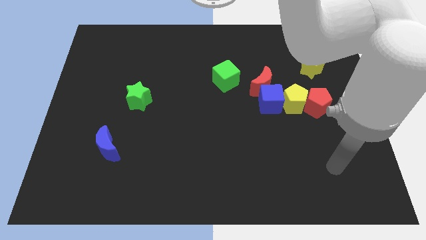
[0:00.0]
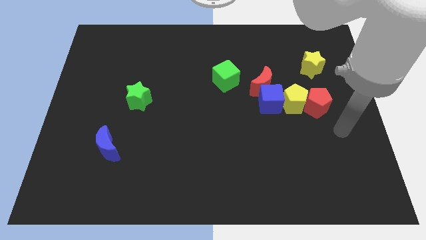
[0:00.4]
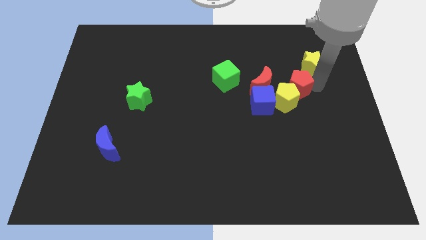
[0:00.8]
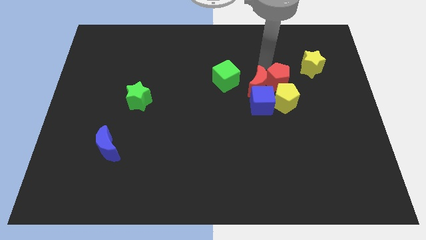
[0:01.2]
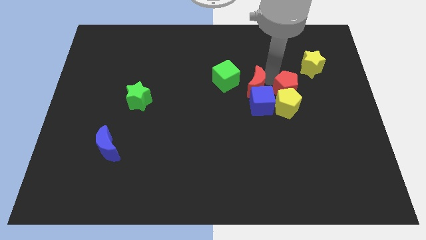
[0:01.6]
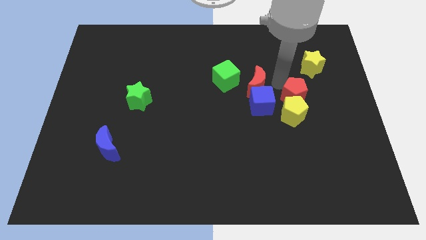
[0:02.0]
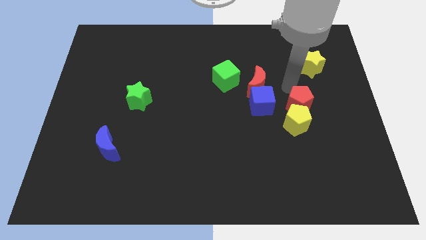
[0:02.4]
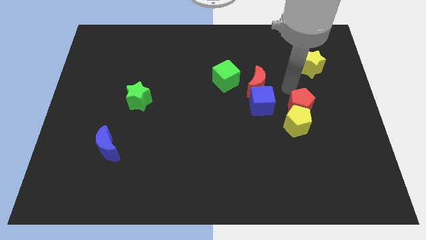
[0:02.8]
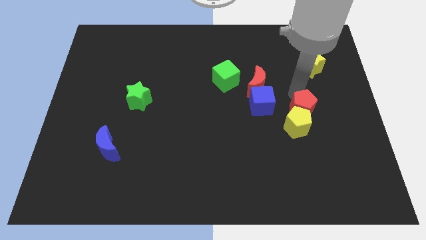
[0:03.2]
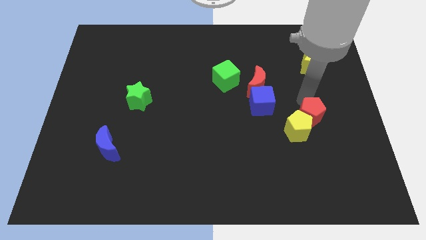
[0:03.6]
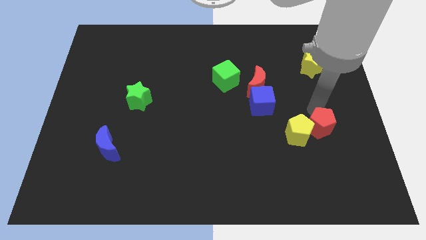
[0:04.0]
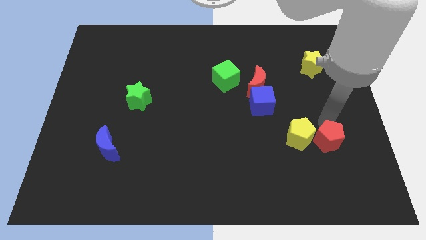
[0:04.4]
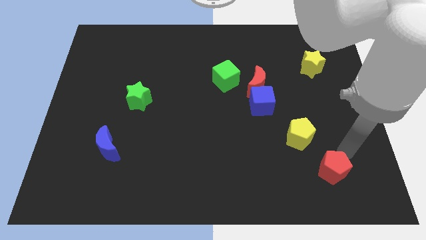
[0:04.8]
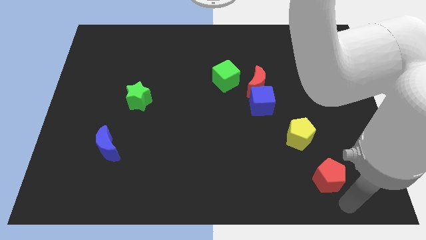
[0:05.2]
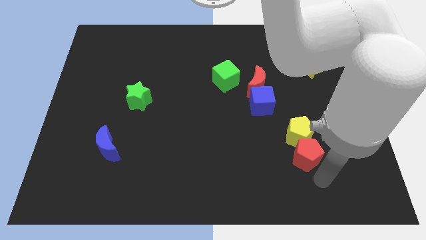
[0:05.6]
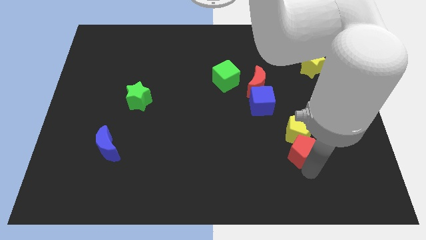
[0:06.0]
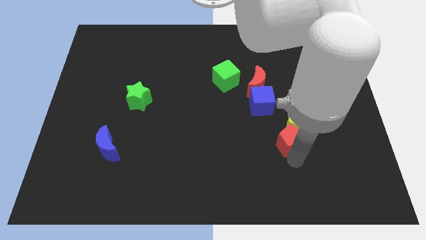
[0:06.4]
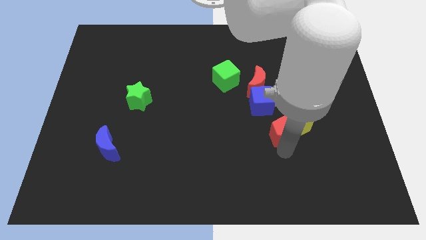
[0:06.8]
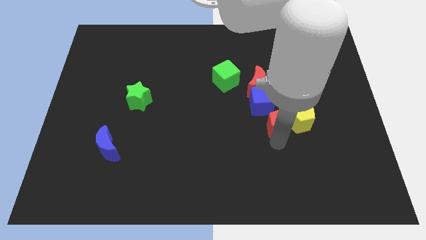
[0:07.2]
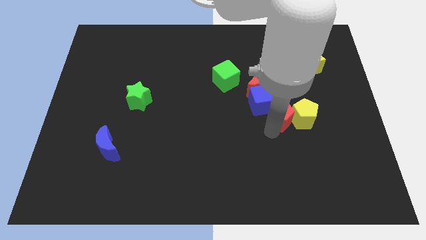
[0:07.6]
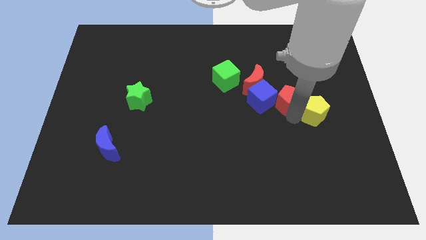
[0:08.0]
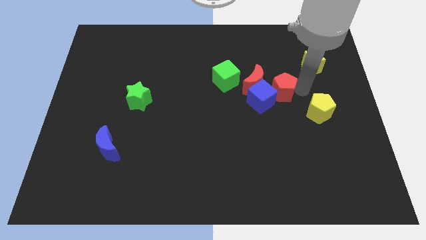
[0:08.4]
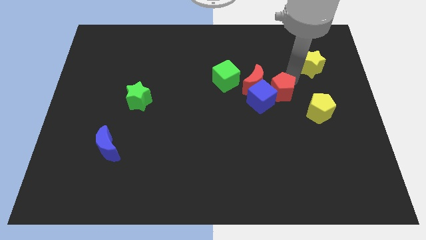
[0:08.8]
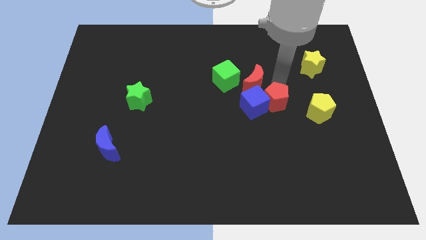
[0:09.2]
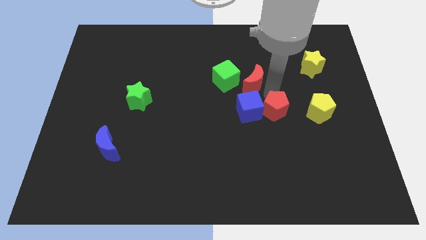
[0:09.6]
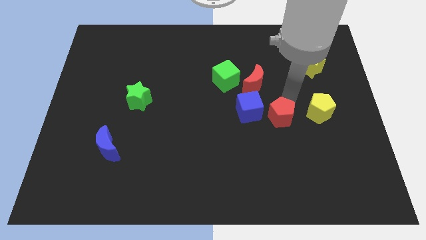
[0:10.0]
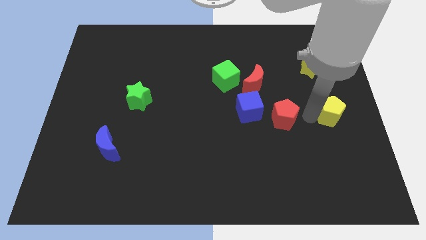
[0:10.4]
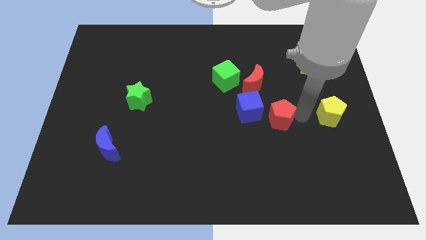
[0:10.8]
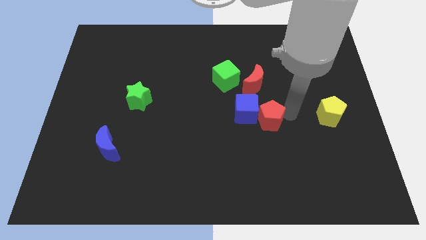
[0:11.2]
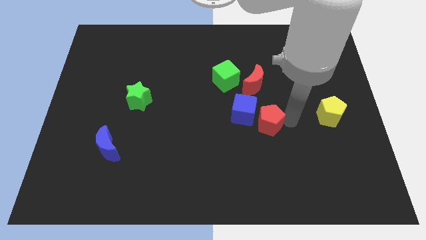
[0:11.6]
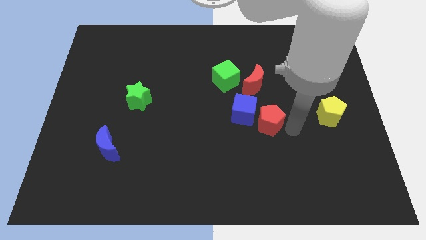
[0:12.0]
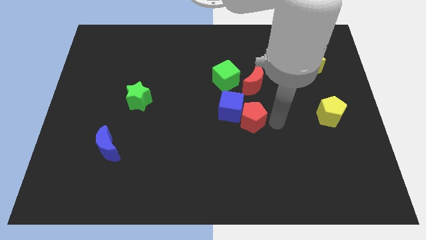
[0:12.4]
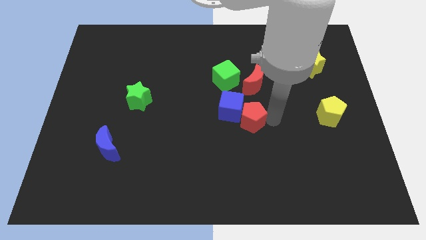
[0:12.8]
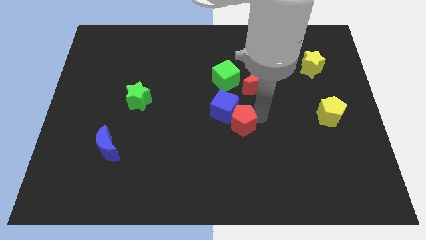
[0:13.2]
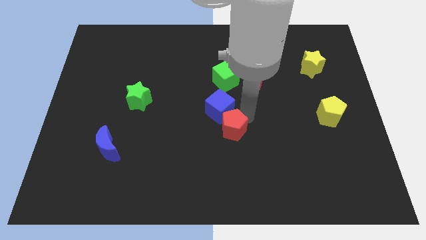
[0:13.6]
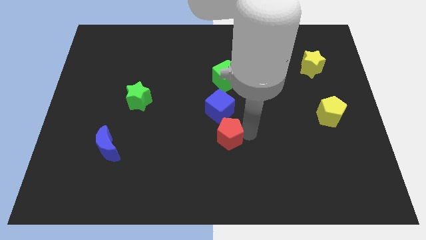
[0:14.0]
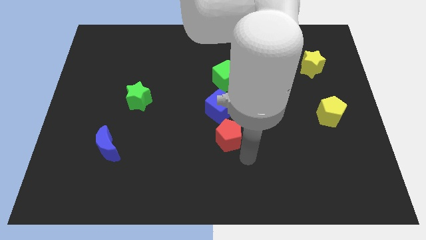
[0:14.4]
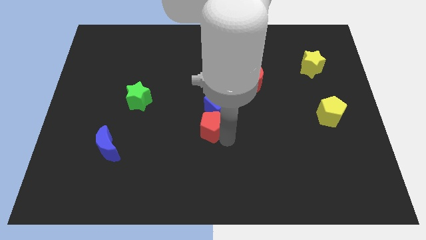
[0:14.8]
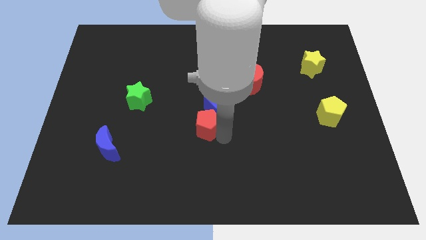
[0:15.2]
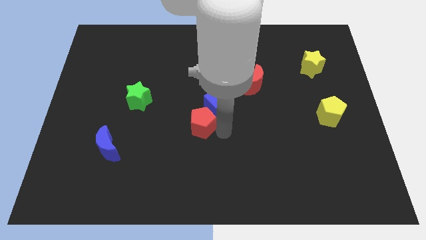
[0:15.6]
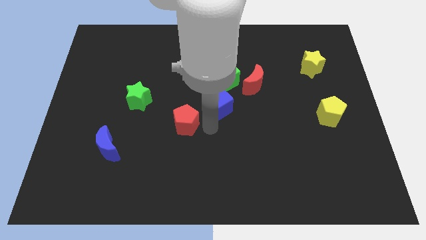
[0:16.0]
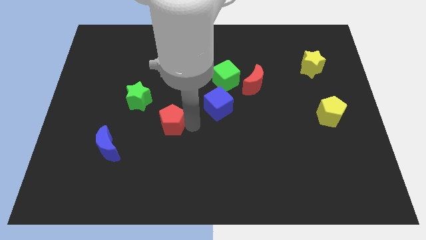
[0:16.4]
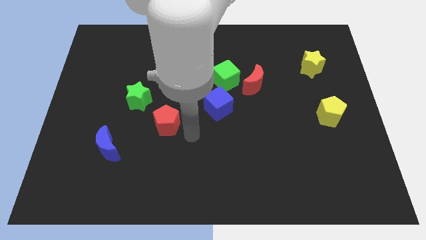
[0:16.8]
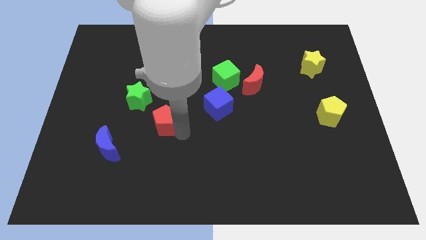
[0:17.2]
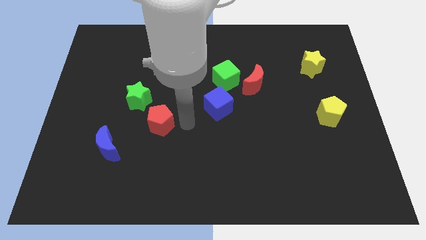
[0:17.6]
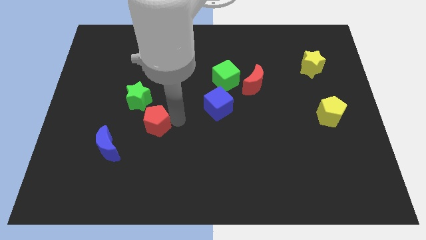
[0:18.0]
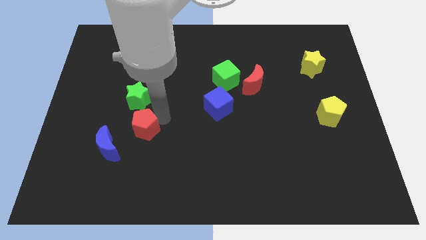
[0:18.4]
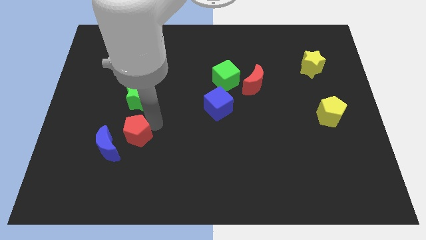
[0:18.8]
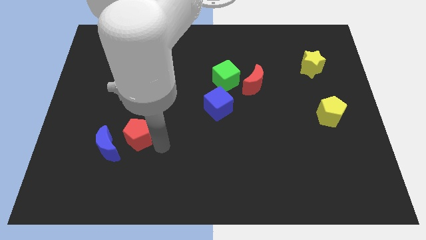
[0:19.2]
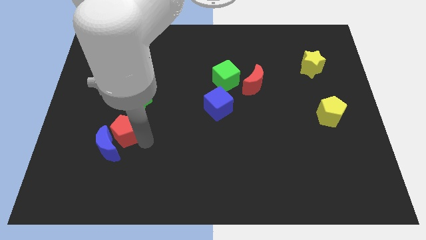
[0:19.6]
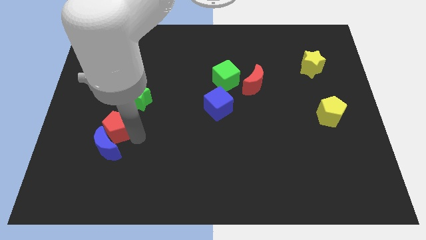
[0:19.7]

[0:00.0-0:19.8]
slide the red pentagon to the top left of the blue moon

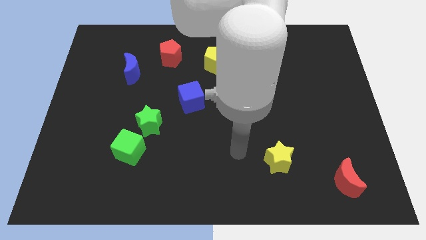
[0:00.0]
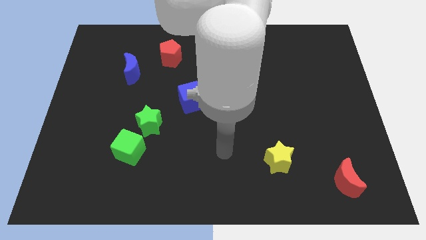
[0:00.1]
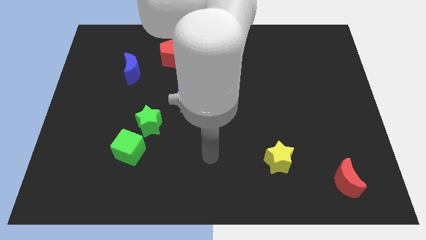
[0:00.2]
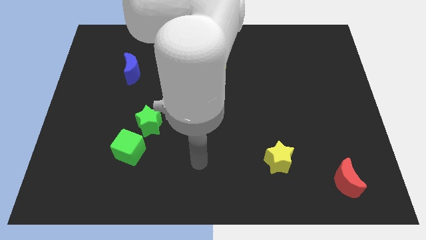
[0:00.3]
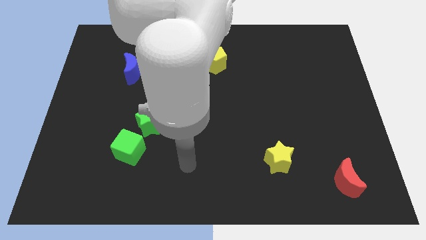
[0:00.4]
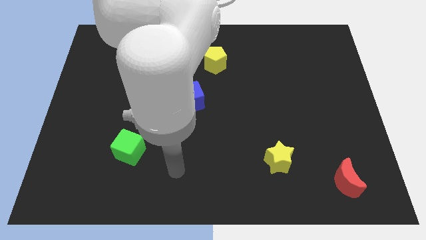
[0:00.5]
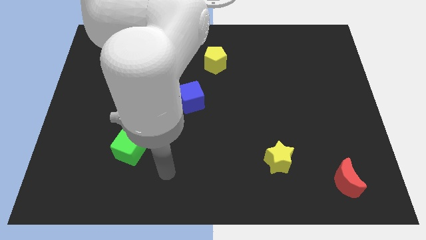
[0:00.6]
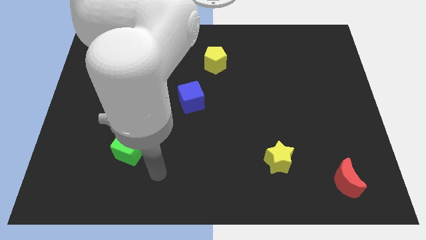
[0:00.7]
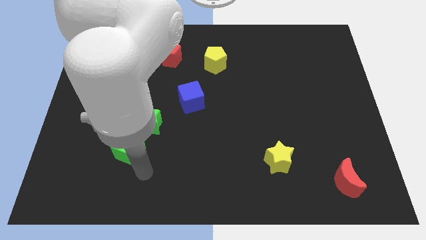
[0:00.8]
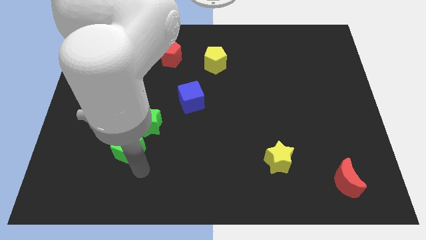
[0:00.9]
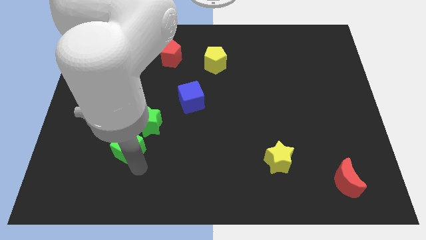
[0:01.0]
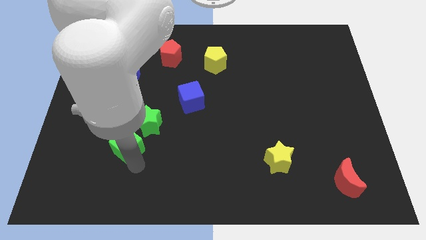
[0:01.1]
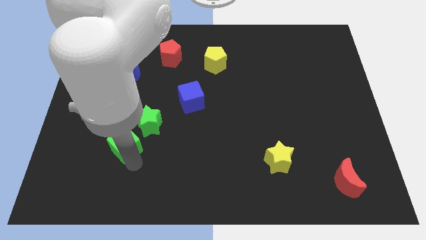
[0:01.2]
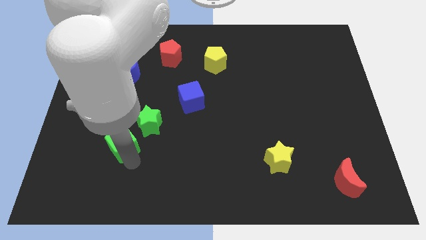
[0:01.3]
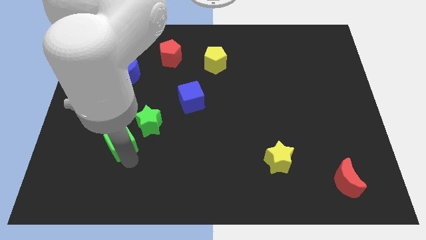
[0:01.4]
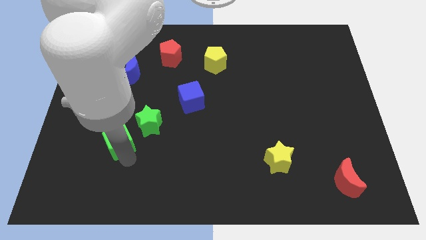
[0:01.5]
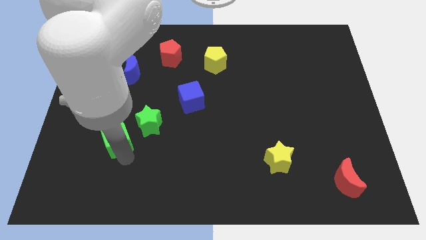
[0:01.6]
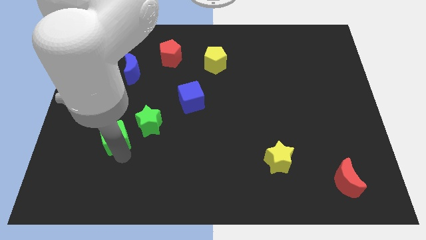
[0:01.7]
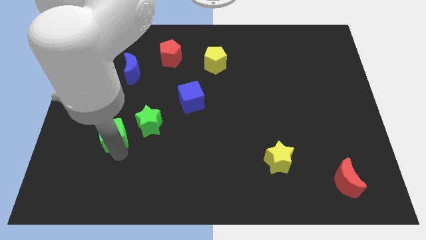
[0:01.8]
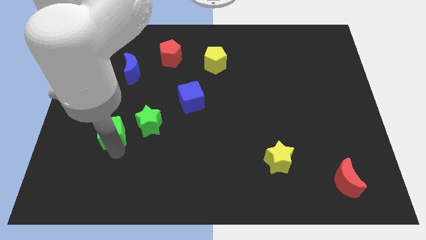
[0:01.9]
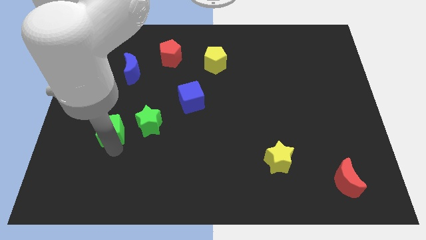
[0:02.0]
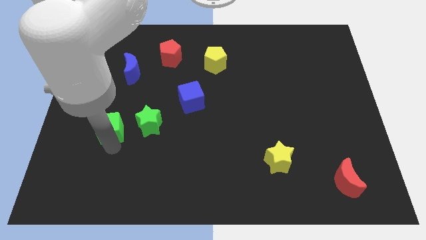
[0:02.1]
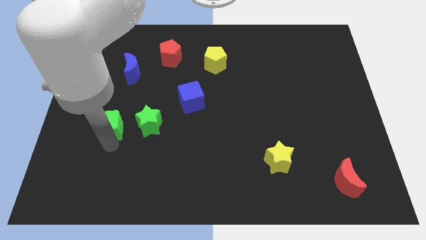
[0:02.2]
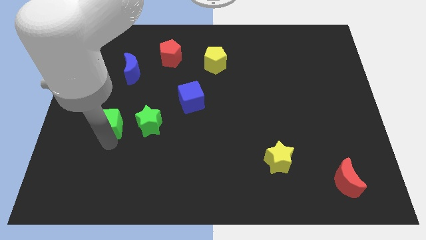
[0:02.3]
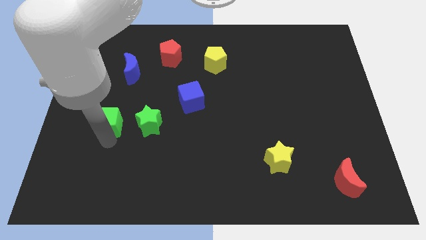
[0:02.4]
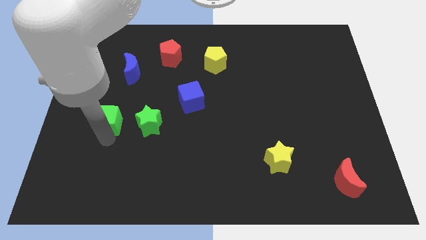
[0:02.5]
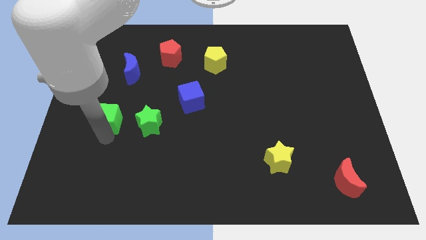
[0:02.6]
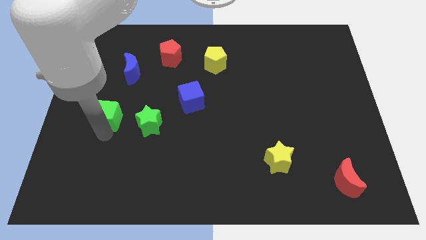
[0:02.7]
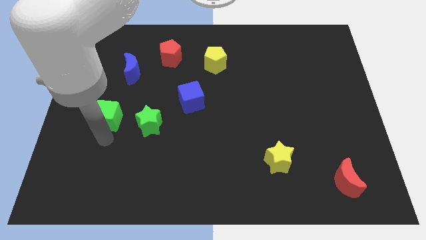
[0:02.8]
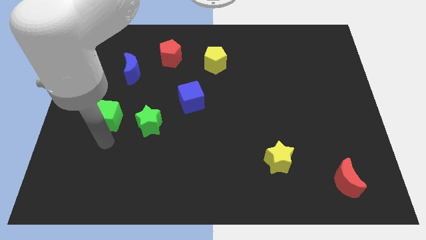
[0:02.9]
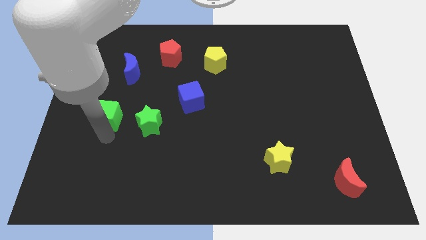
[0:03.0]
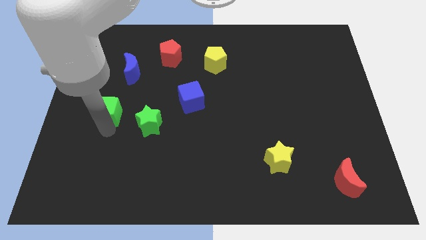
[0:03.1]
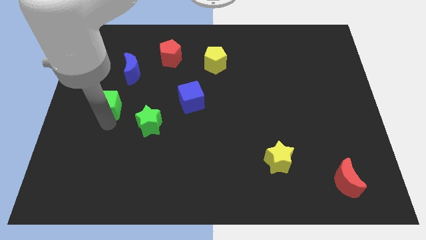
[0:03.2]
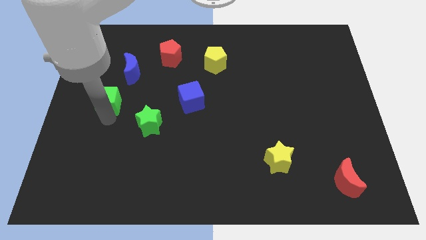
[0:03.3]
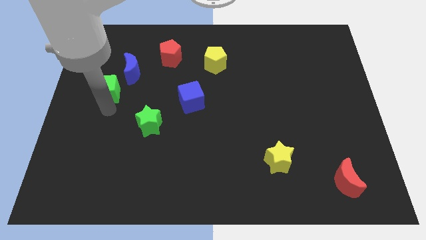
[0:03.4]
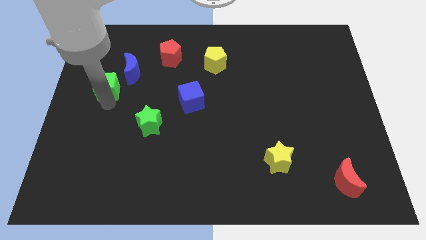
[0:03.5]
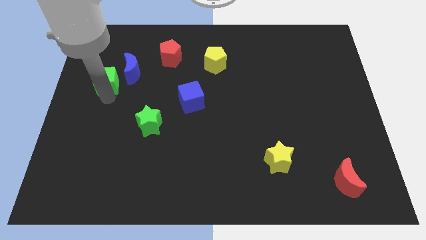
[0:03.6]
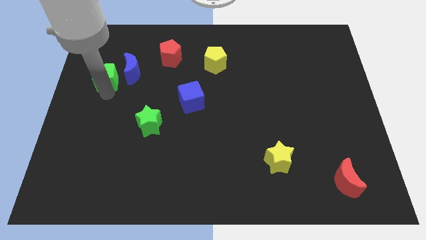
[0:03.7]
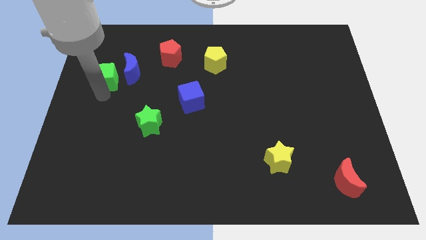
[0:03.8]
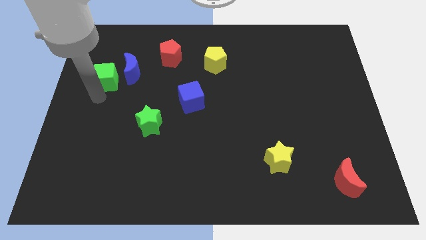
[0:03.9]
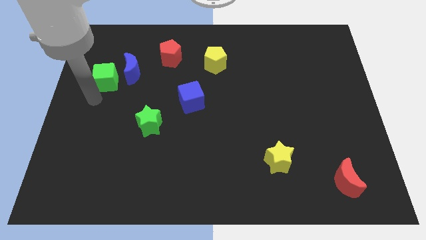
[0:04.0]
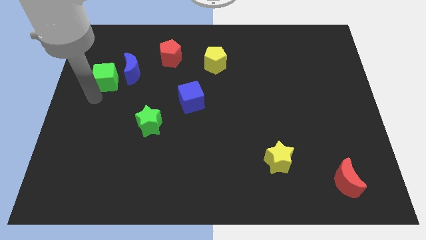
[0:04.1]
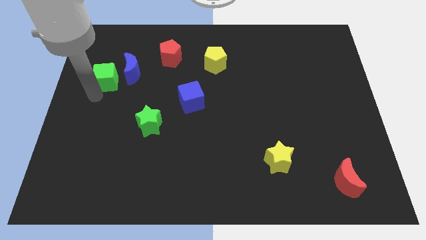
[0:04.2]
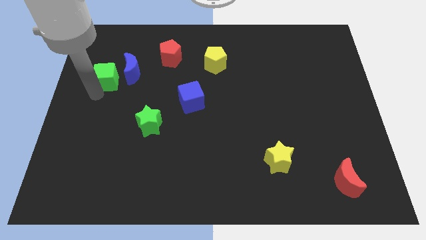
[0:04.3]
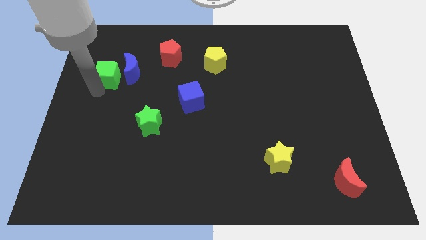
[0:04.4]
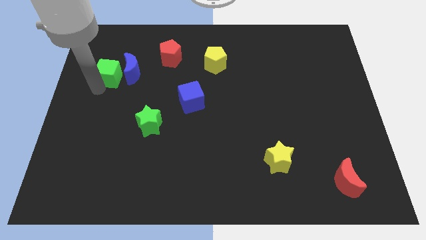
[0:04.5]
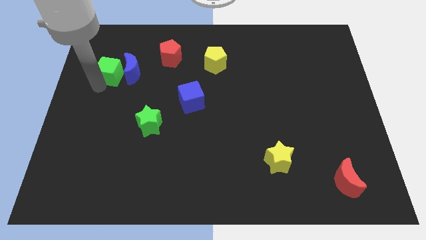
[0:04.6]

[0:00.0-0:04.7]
move the green cube to the top left of the blue moon
